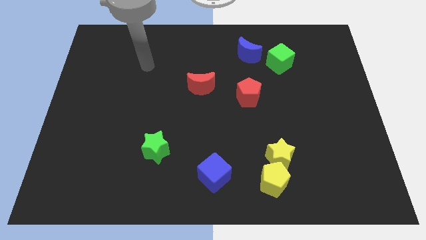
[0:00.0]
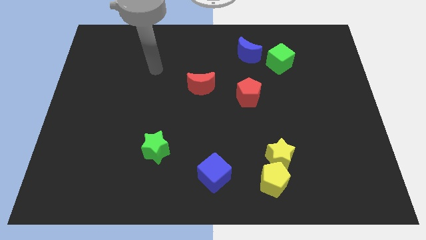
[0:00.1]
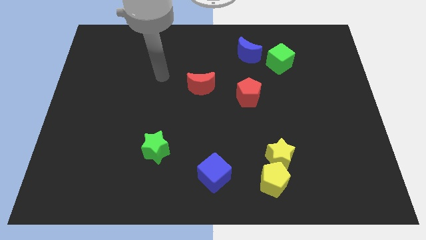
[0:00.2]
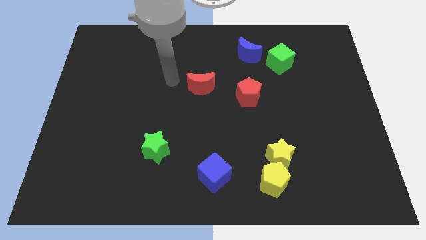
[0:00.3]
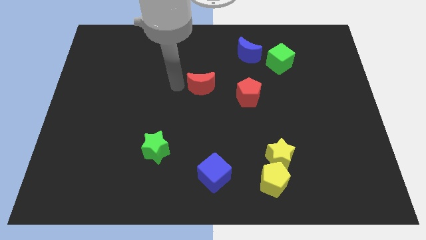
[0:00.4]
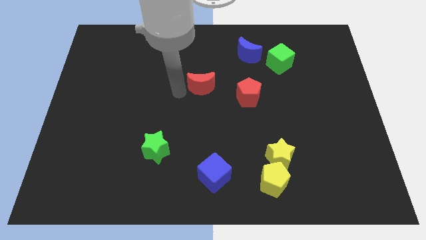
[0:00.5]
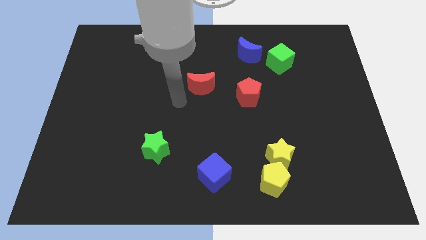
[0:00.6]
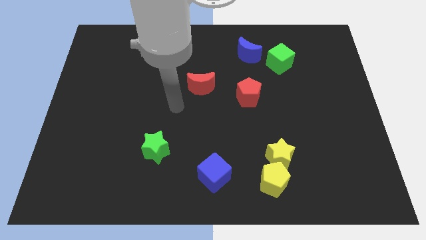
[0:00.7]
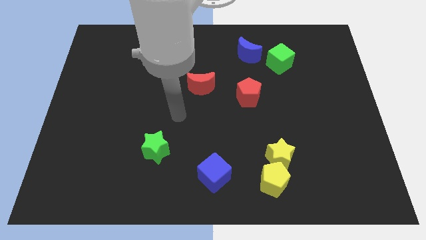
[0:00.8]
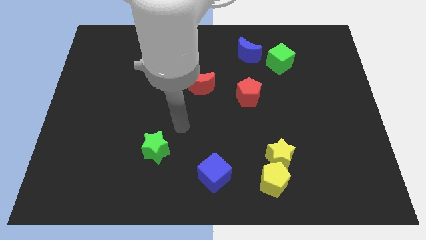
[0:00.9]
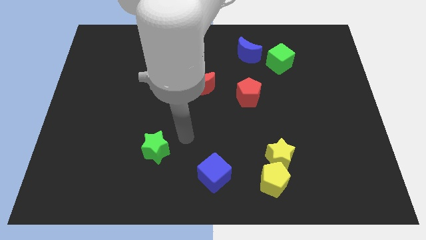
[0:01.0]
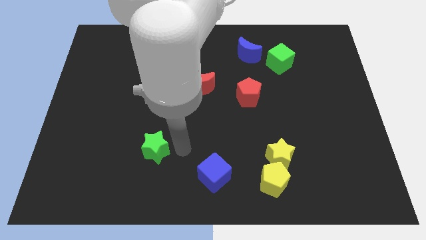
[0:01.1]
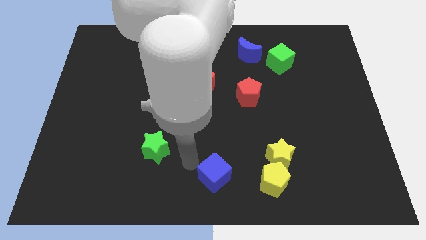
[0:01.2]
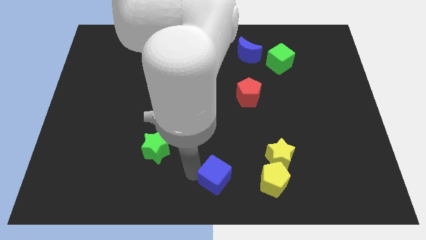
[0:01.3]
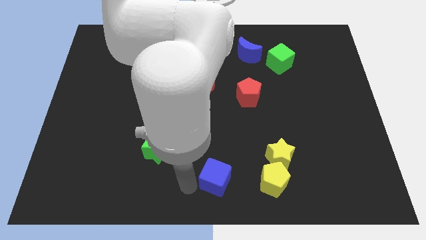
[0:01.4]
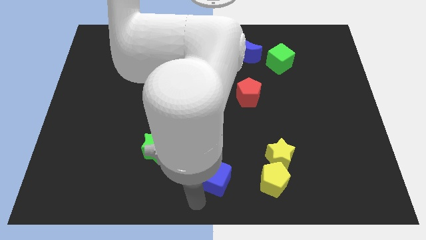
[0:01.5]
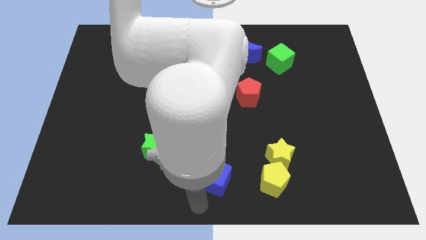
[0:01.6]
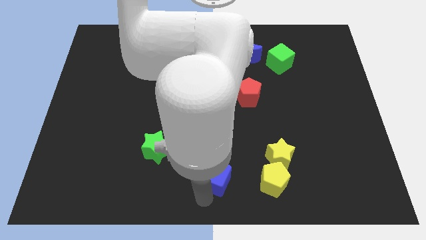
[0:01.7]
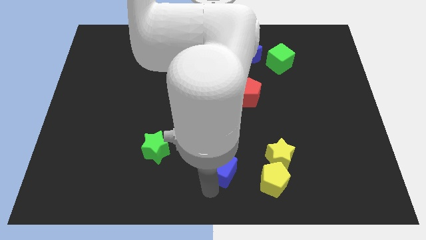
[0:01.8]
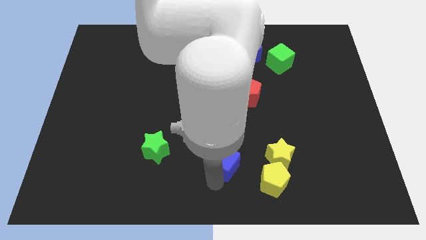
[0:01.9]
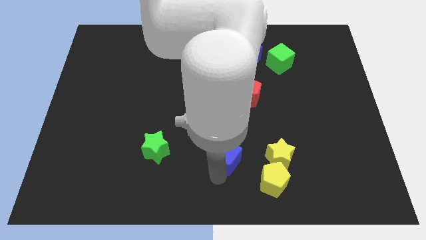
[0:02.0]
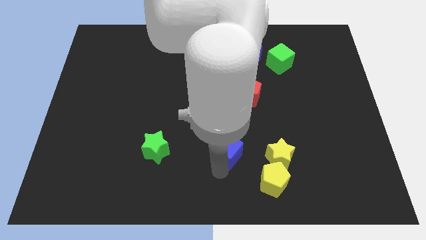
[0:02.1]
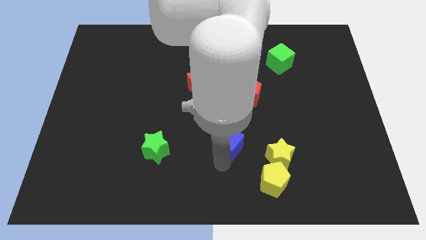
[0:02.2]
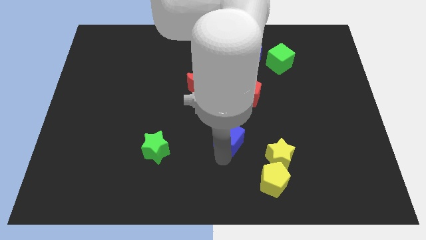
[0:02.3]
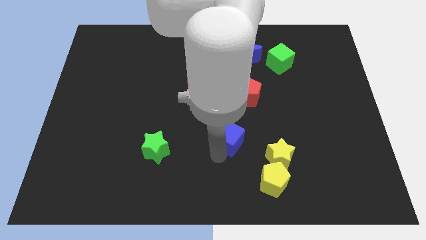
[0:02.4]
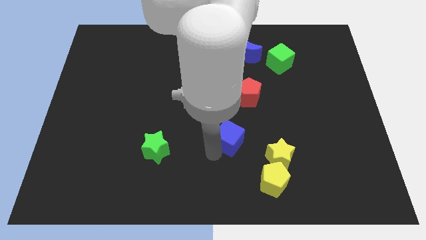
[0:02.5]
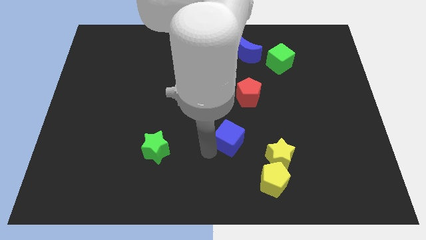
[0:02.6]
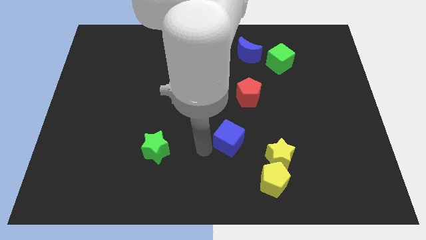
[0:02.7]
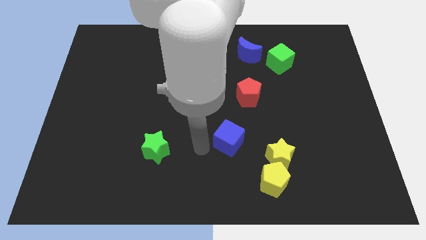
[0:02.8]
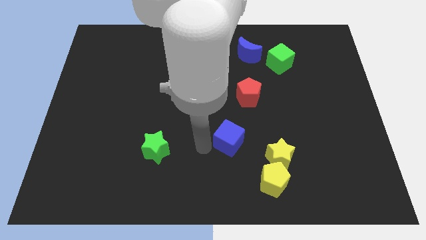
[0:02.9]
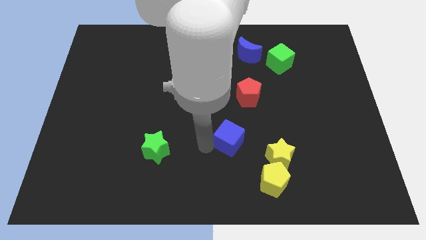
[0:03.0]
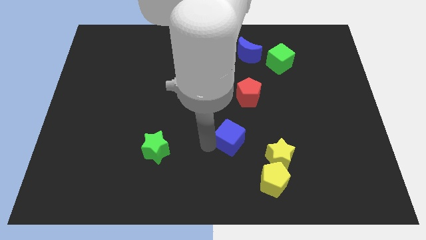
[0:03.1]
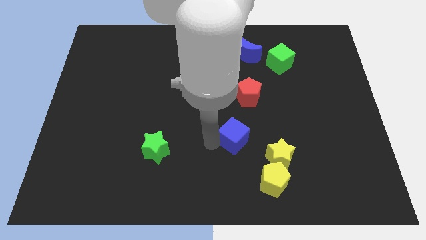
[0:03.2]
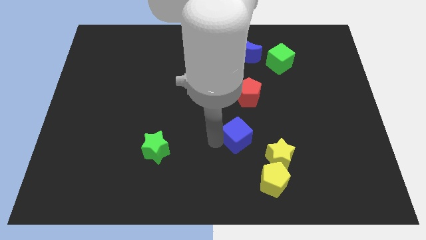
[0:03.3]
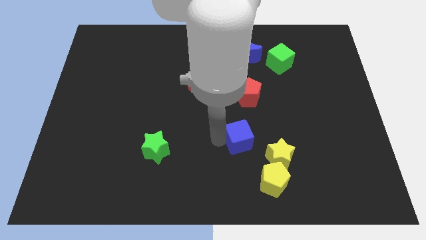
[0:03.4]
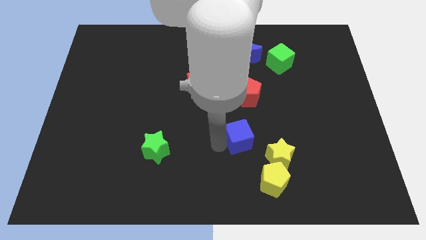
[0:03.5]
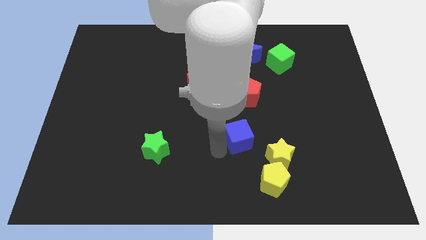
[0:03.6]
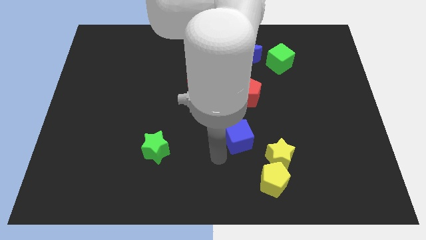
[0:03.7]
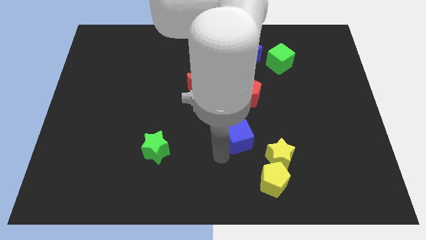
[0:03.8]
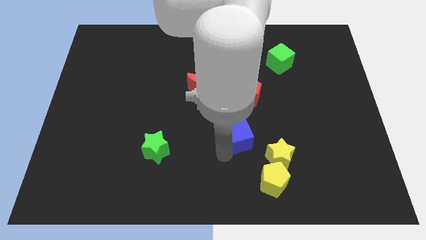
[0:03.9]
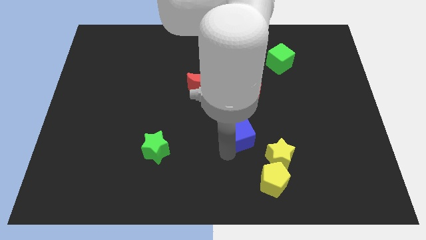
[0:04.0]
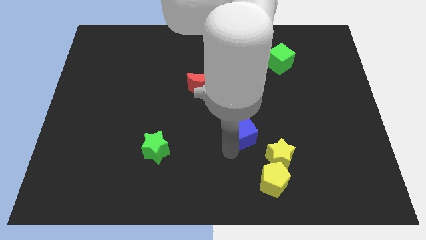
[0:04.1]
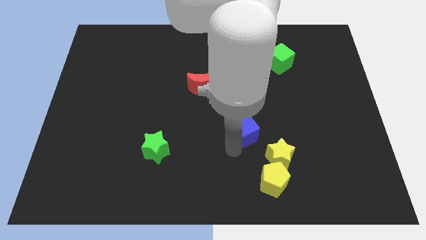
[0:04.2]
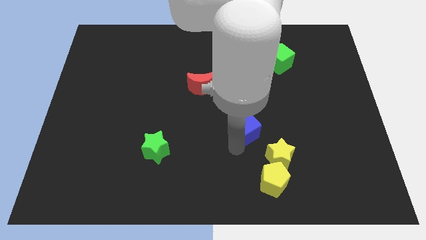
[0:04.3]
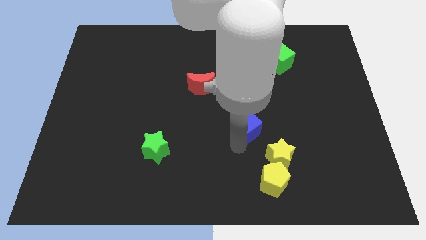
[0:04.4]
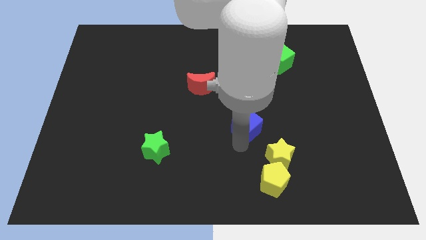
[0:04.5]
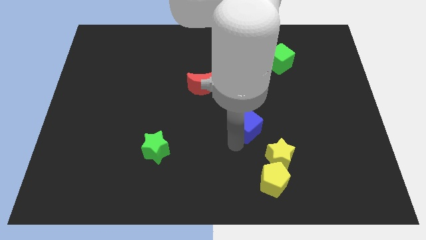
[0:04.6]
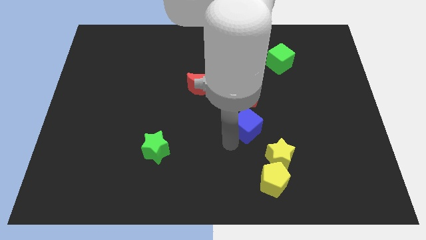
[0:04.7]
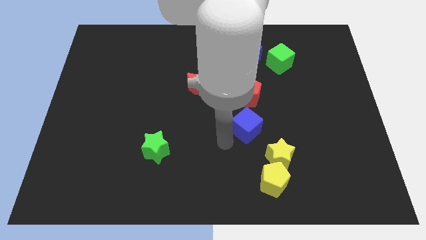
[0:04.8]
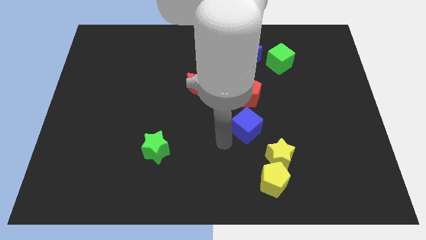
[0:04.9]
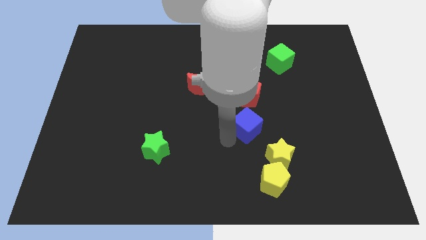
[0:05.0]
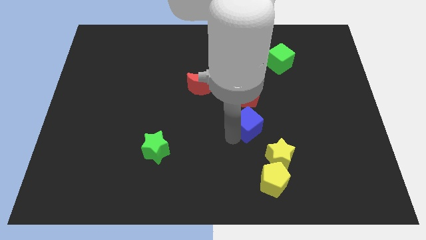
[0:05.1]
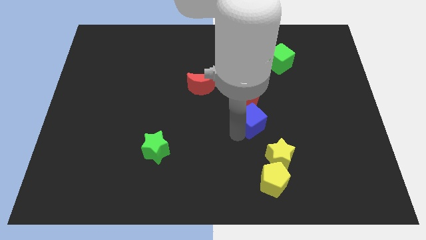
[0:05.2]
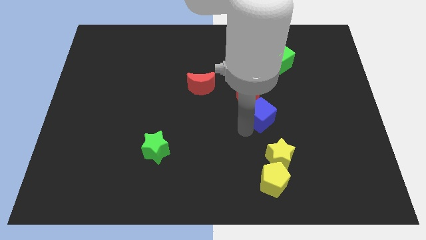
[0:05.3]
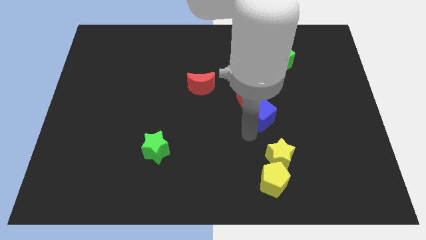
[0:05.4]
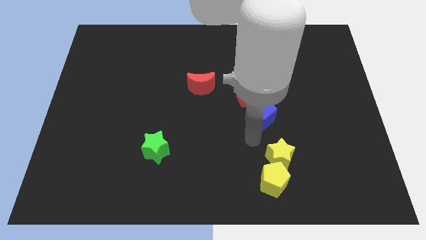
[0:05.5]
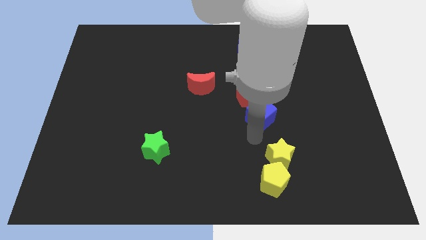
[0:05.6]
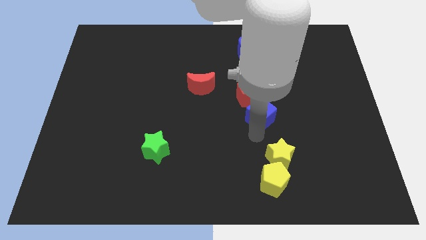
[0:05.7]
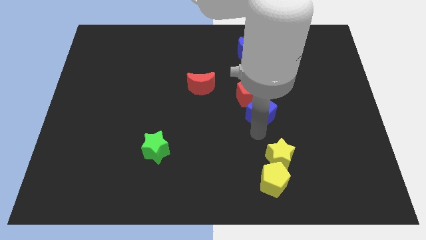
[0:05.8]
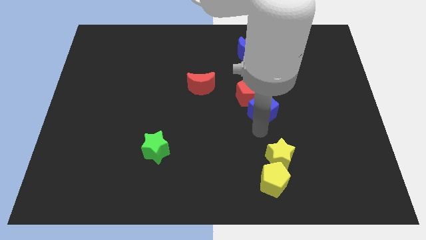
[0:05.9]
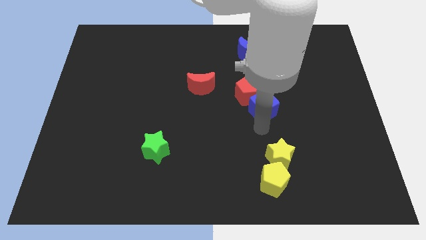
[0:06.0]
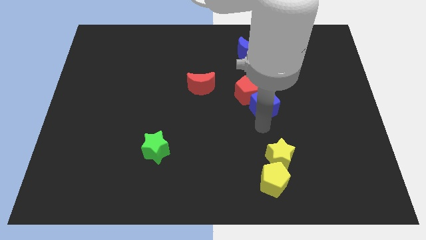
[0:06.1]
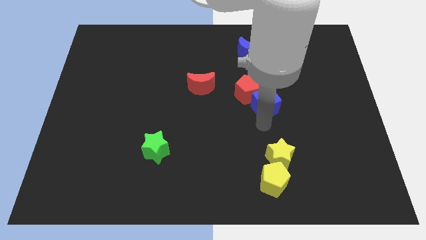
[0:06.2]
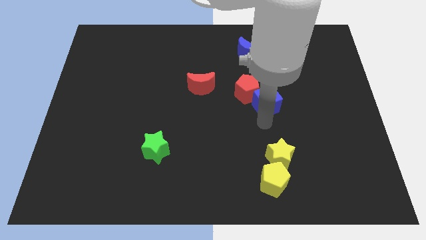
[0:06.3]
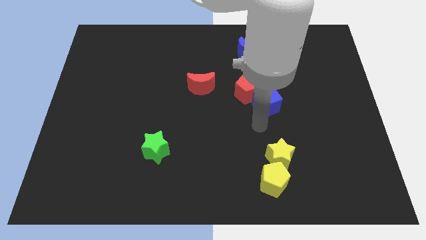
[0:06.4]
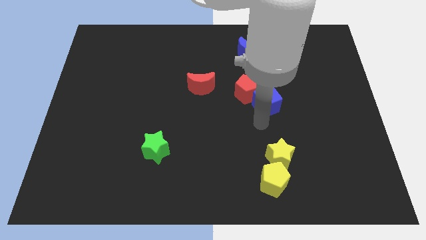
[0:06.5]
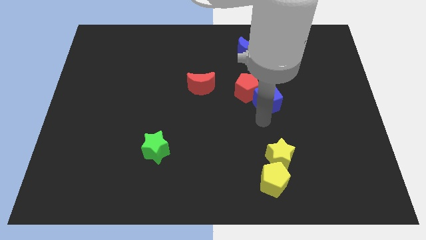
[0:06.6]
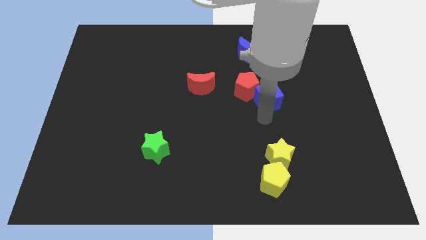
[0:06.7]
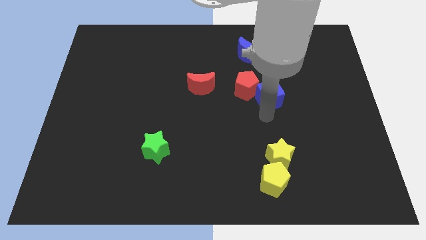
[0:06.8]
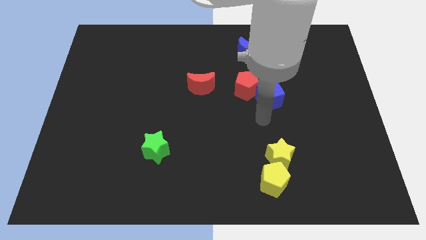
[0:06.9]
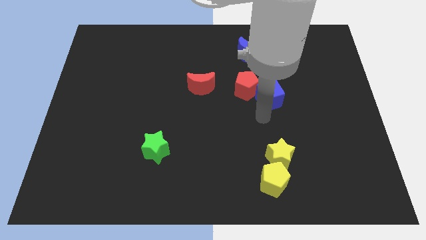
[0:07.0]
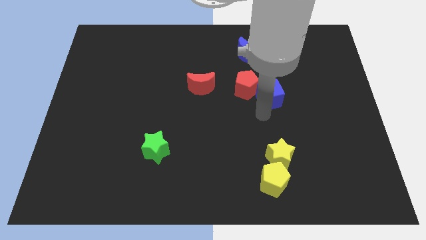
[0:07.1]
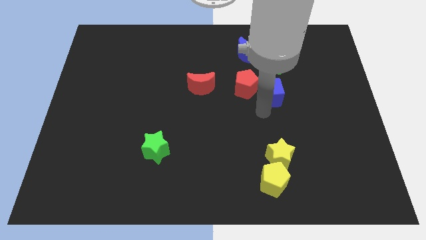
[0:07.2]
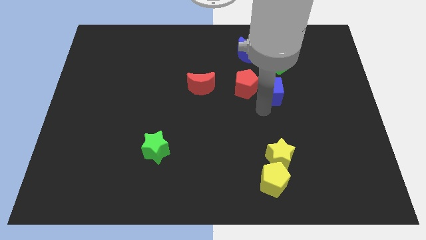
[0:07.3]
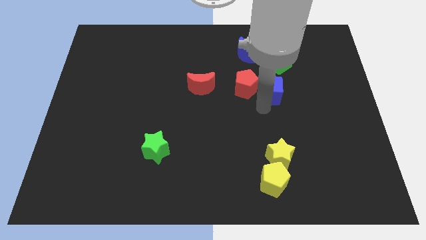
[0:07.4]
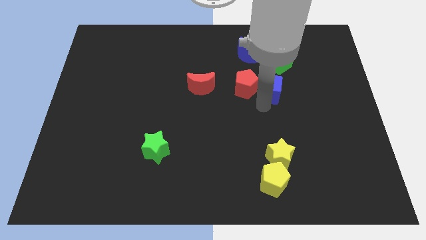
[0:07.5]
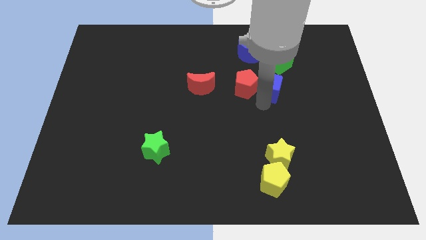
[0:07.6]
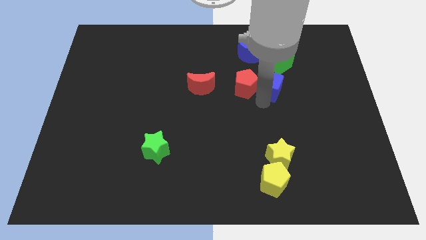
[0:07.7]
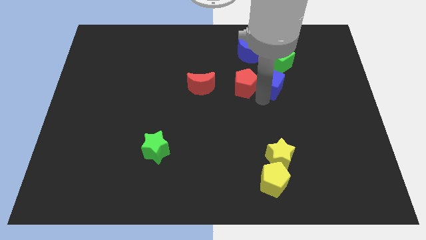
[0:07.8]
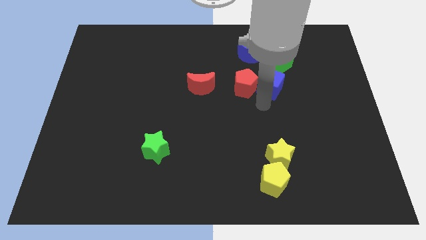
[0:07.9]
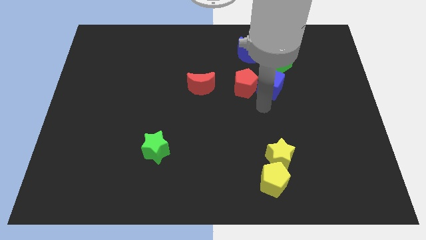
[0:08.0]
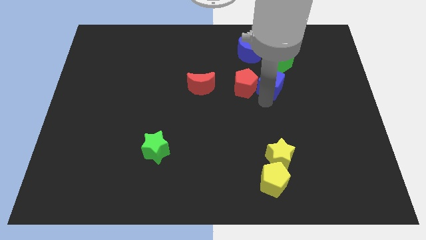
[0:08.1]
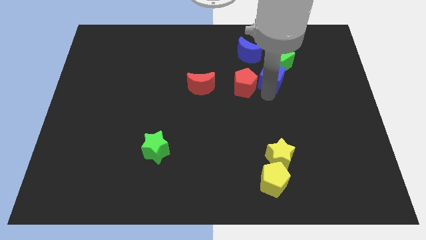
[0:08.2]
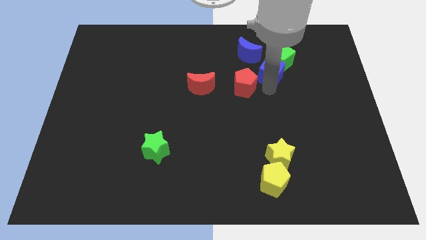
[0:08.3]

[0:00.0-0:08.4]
slide the blue cube next to the green cube
